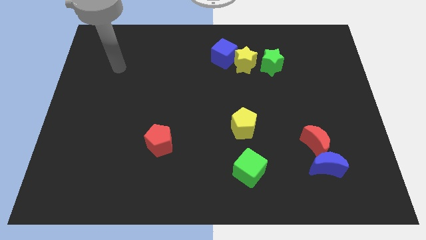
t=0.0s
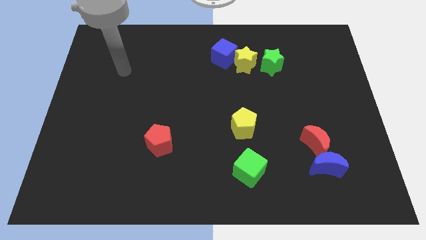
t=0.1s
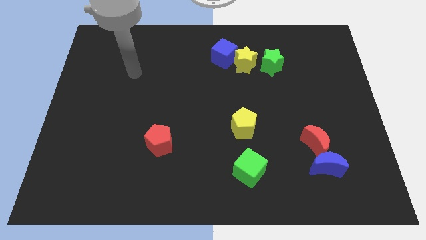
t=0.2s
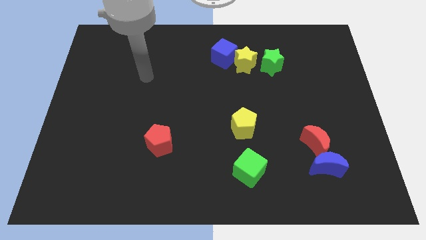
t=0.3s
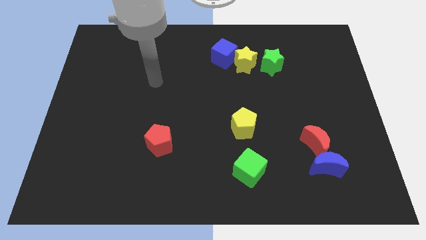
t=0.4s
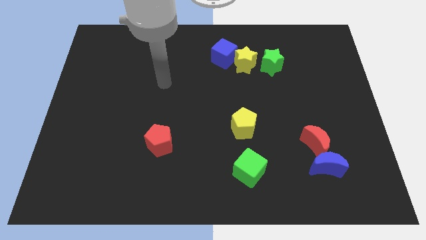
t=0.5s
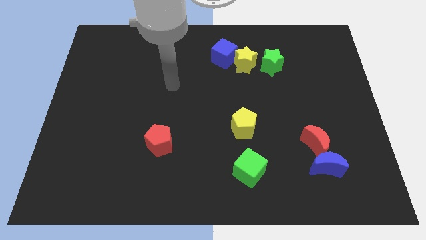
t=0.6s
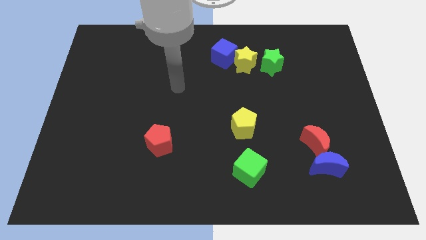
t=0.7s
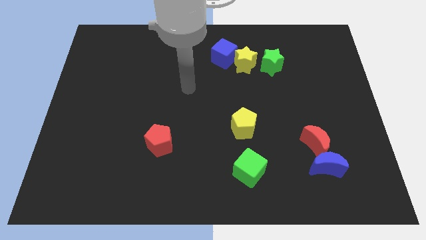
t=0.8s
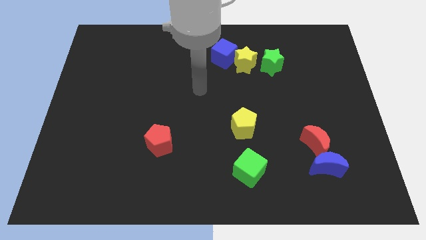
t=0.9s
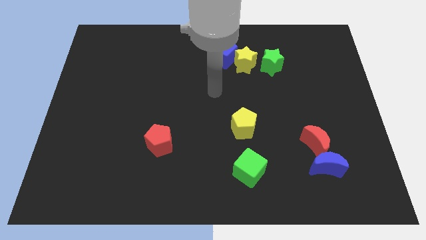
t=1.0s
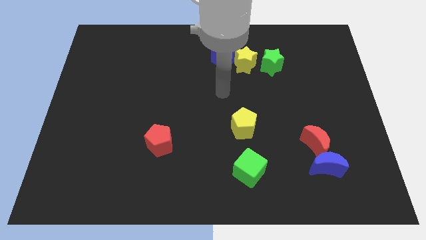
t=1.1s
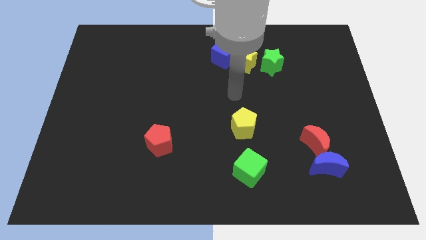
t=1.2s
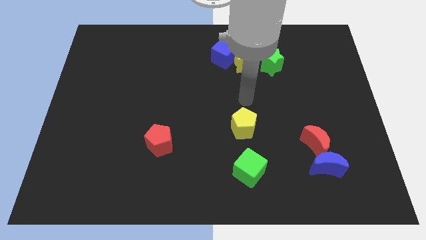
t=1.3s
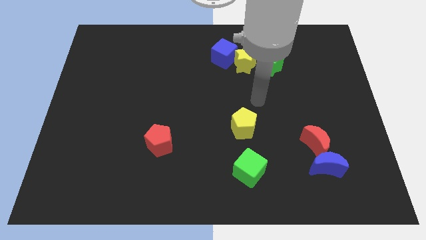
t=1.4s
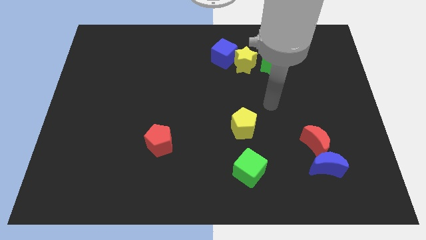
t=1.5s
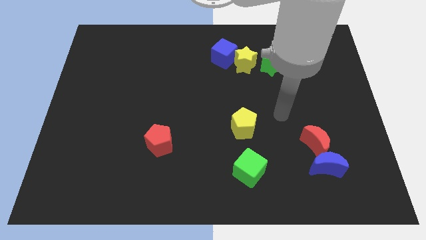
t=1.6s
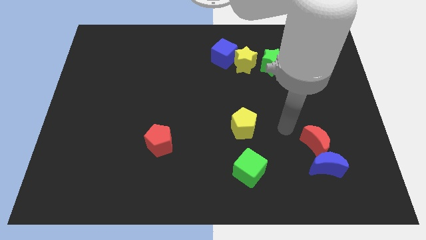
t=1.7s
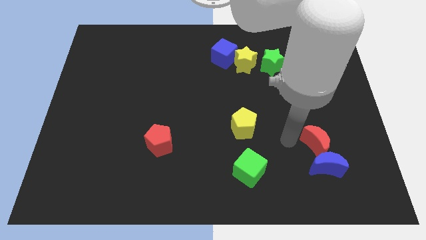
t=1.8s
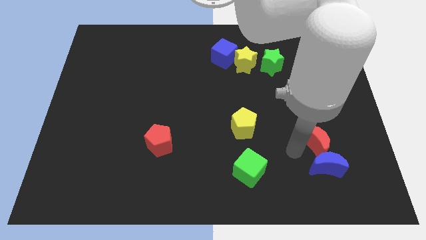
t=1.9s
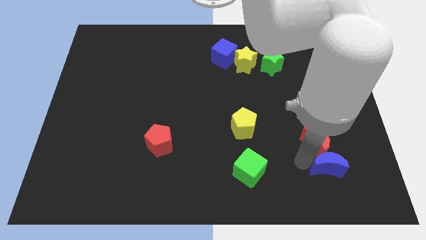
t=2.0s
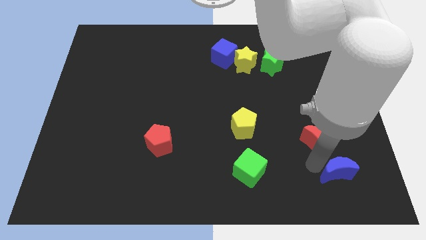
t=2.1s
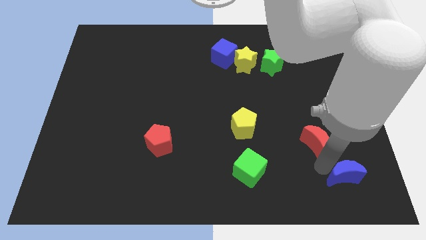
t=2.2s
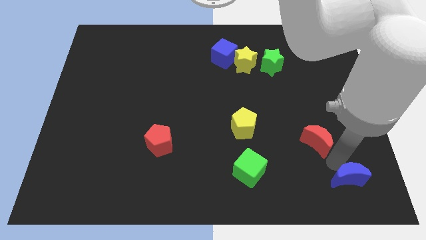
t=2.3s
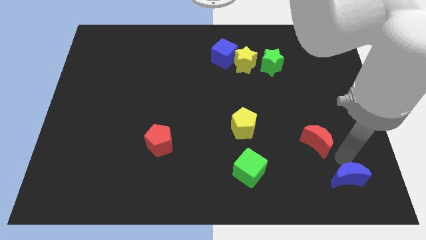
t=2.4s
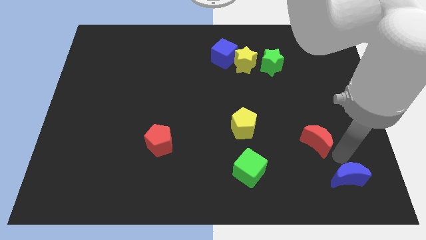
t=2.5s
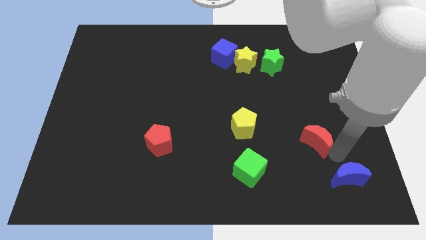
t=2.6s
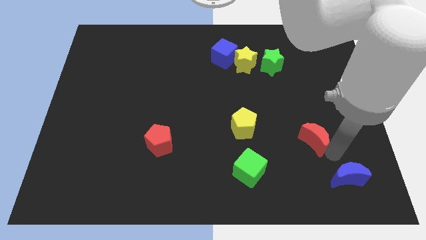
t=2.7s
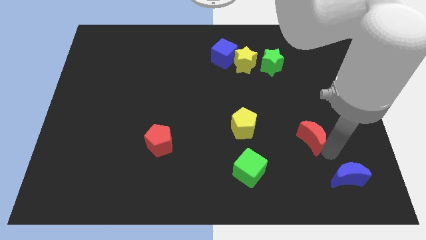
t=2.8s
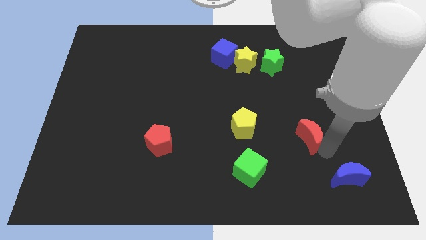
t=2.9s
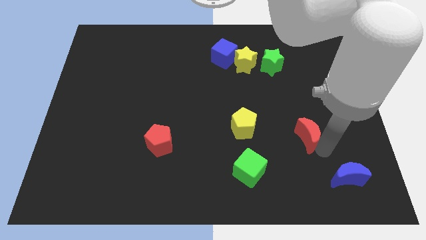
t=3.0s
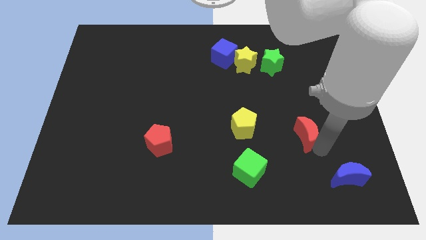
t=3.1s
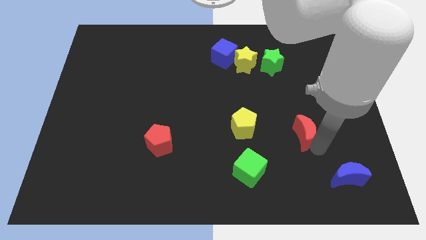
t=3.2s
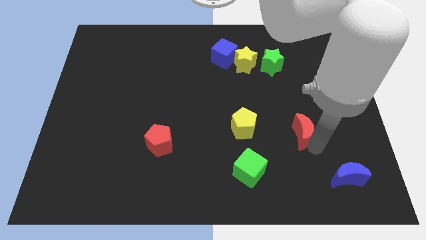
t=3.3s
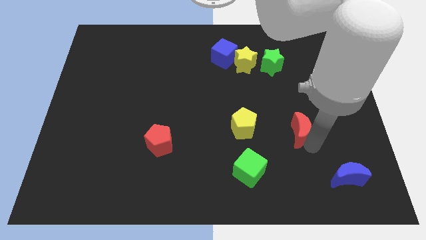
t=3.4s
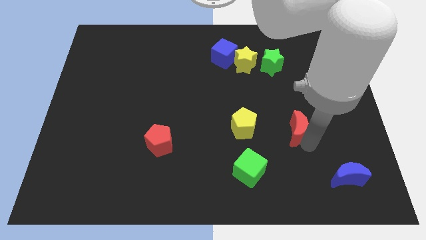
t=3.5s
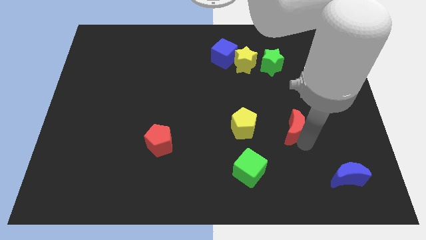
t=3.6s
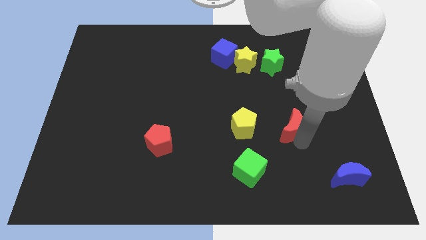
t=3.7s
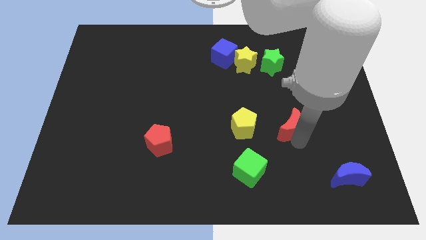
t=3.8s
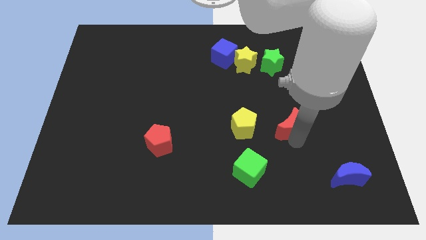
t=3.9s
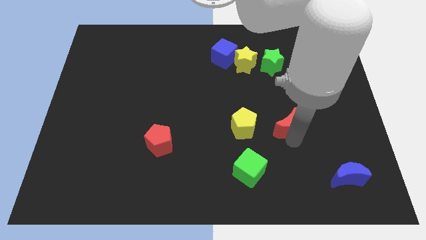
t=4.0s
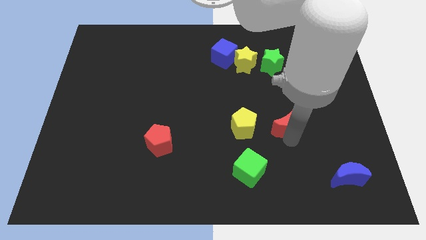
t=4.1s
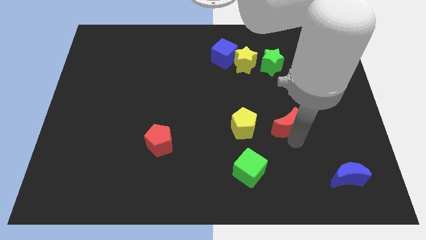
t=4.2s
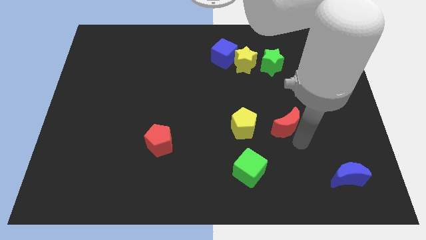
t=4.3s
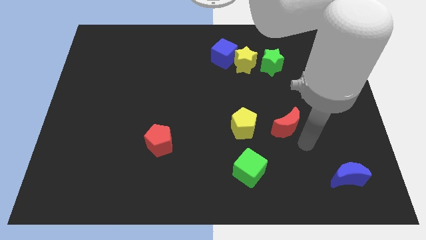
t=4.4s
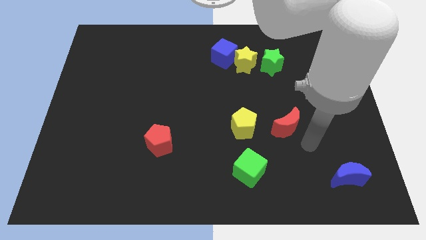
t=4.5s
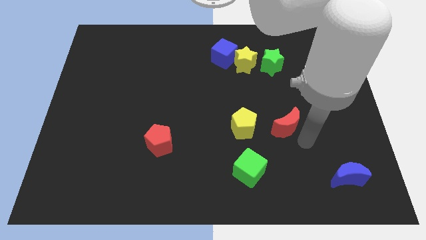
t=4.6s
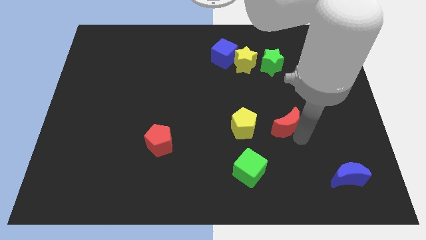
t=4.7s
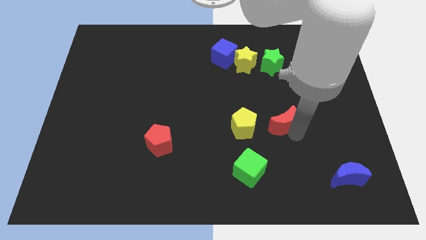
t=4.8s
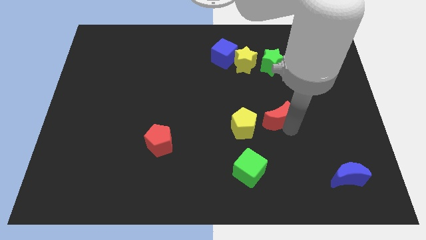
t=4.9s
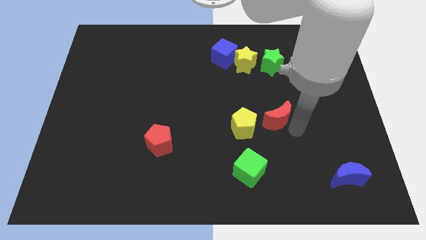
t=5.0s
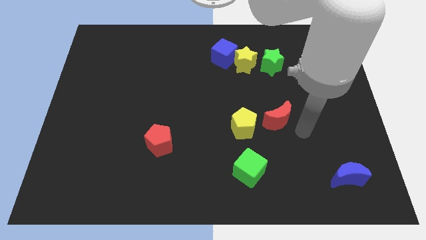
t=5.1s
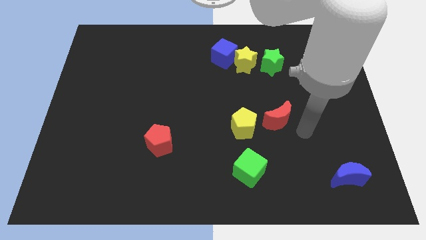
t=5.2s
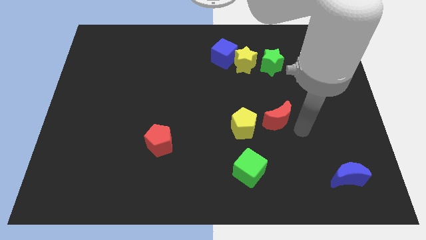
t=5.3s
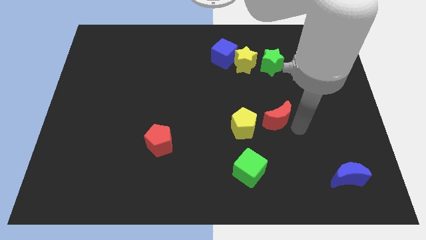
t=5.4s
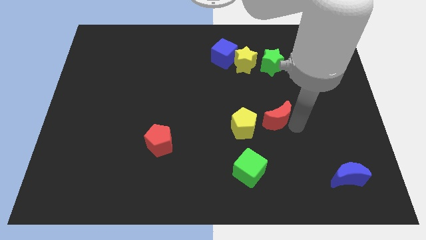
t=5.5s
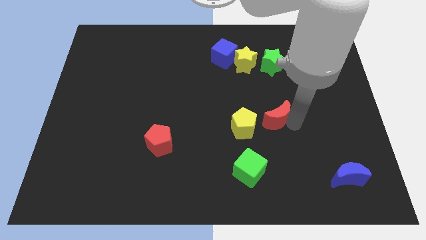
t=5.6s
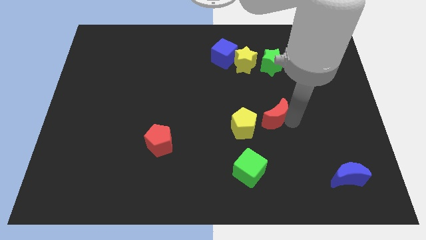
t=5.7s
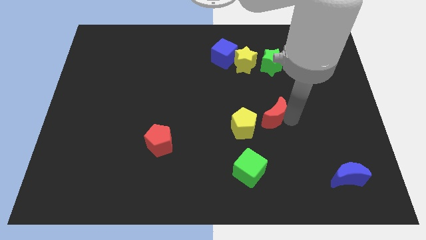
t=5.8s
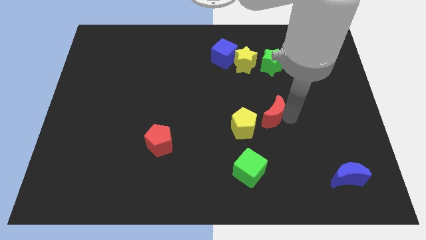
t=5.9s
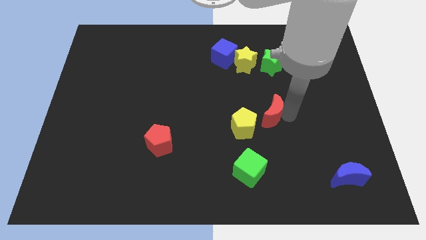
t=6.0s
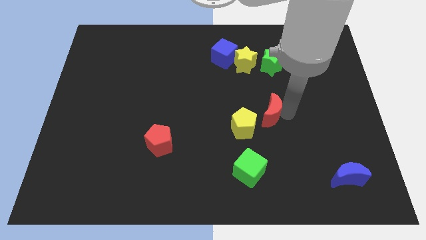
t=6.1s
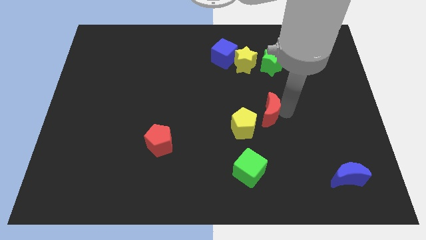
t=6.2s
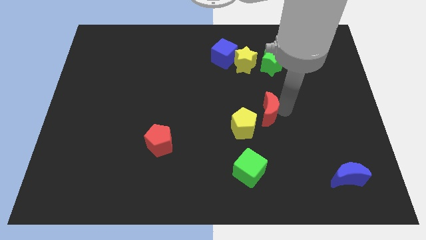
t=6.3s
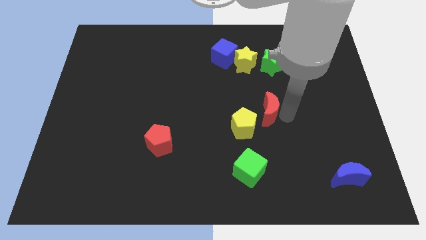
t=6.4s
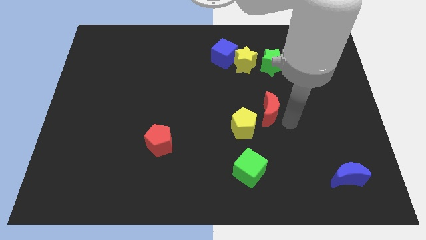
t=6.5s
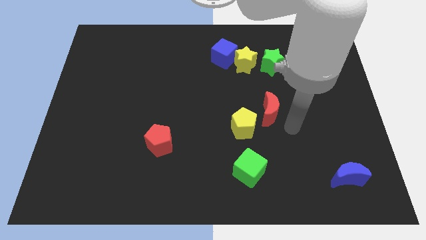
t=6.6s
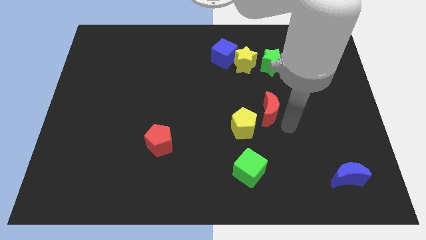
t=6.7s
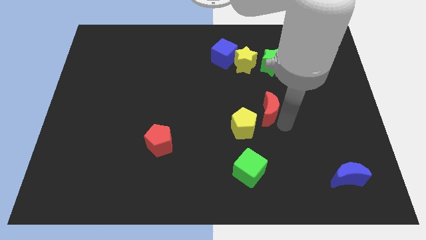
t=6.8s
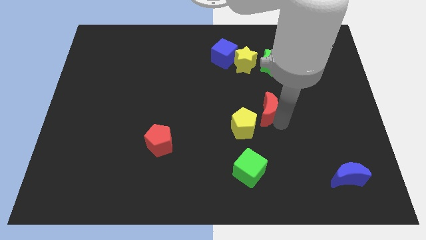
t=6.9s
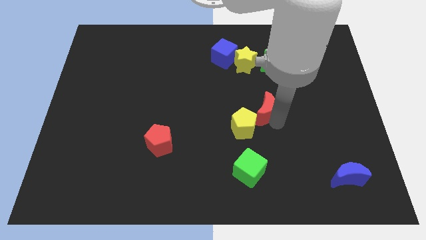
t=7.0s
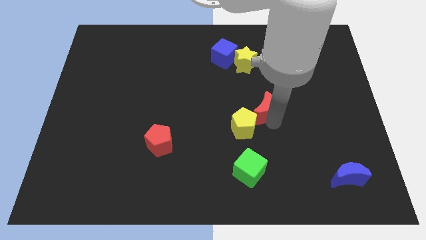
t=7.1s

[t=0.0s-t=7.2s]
push the red moon above the yellow pentagon
